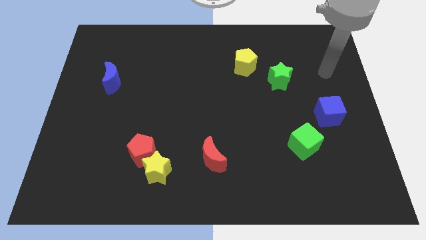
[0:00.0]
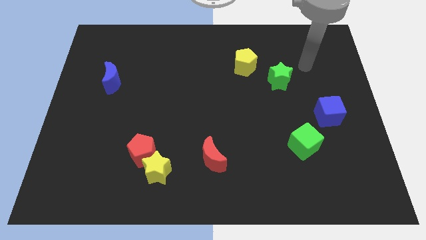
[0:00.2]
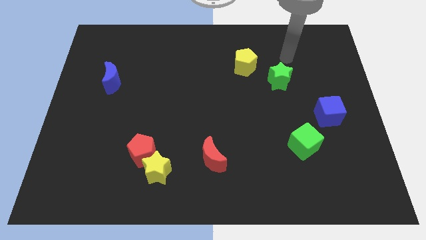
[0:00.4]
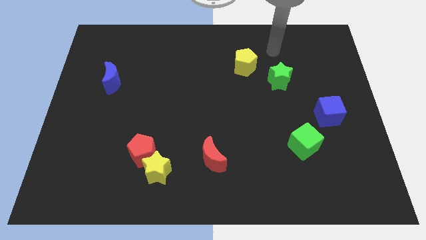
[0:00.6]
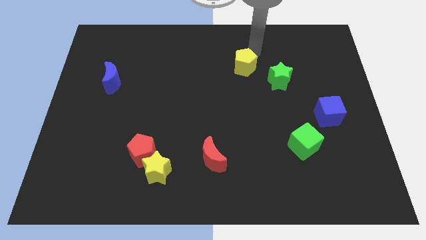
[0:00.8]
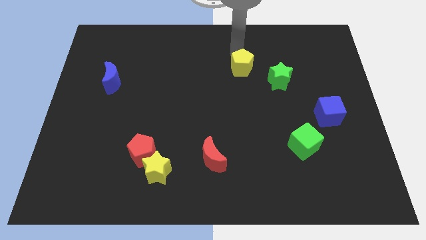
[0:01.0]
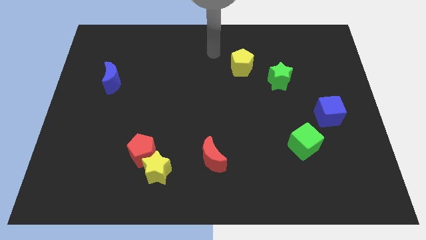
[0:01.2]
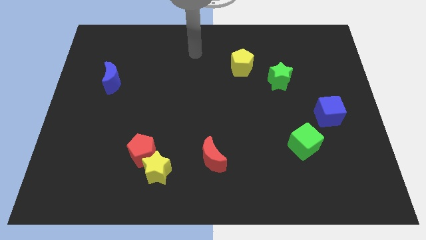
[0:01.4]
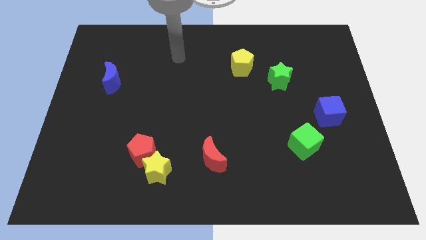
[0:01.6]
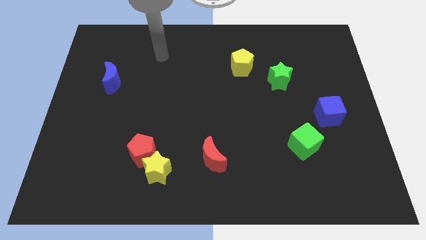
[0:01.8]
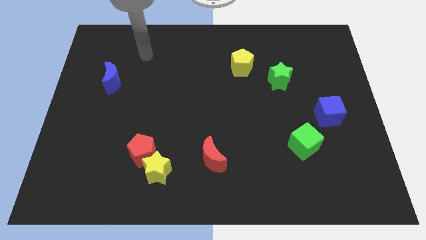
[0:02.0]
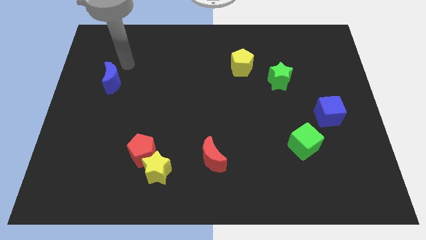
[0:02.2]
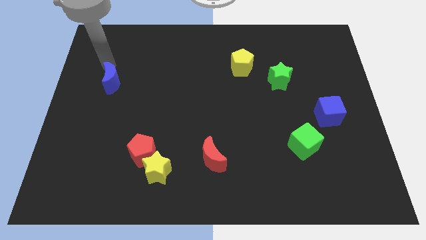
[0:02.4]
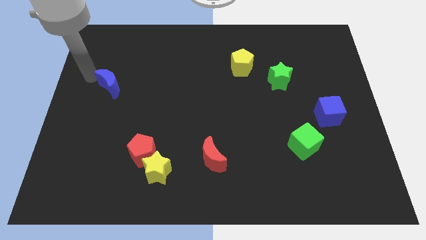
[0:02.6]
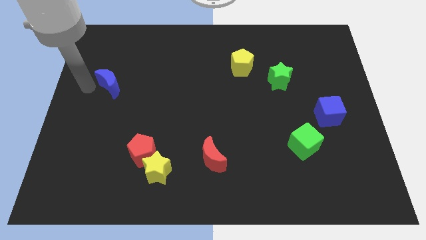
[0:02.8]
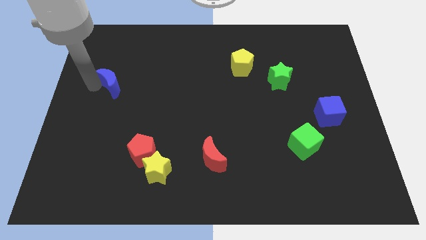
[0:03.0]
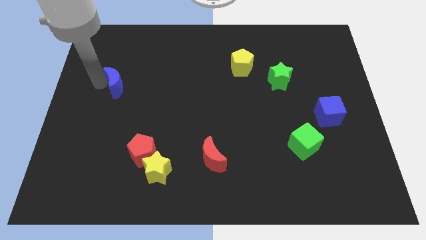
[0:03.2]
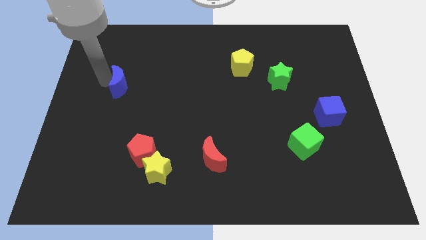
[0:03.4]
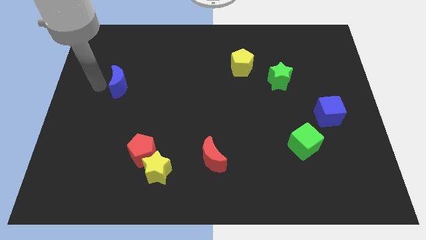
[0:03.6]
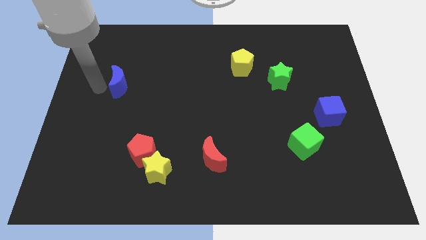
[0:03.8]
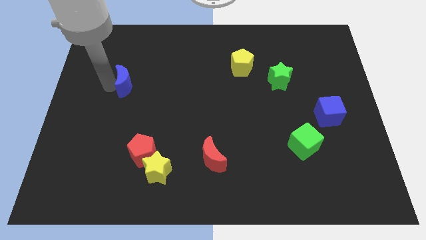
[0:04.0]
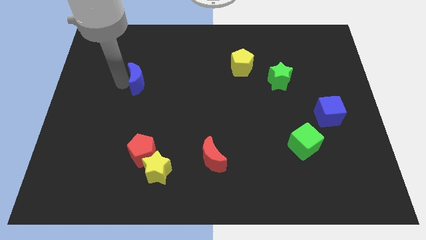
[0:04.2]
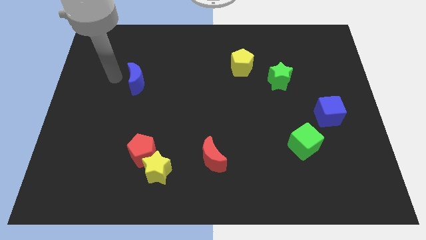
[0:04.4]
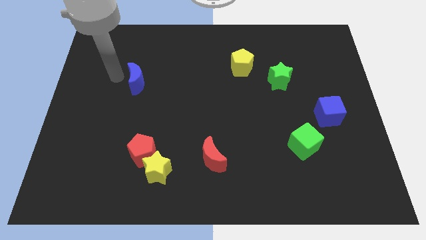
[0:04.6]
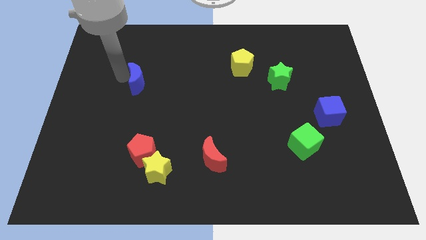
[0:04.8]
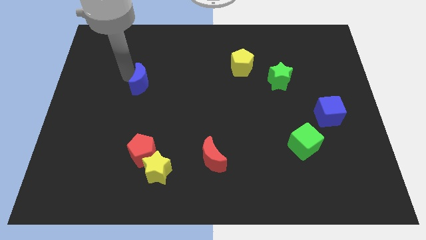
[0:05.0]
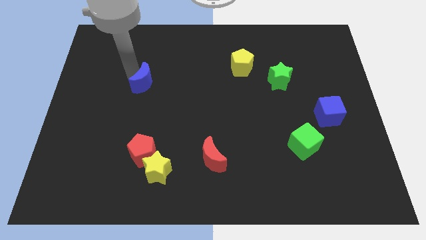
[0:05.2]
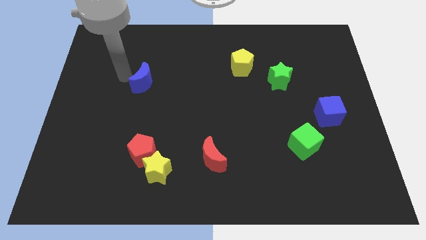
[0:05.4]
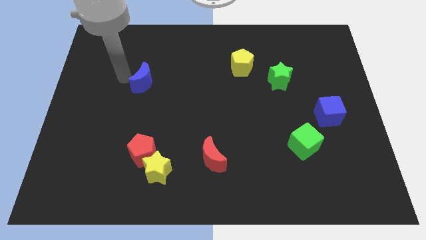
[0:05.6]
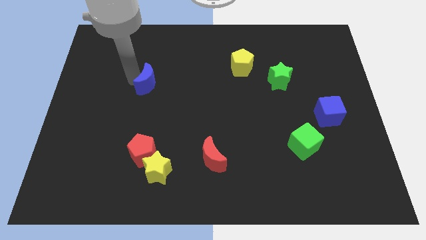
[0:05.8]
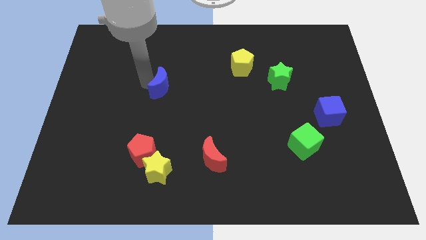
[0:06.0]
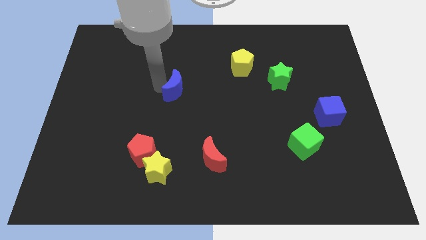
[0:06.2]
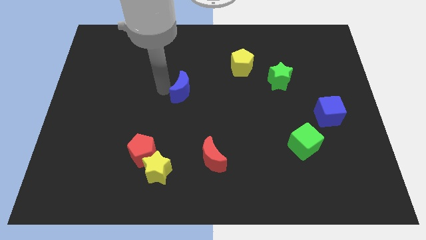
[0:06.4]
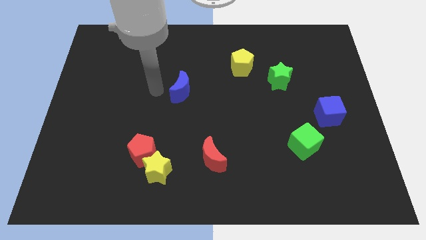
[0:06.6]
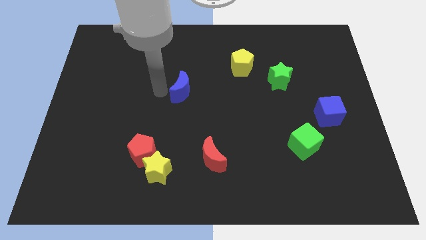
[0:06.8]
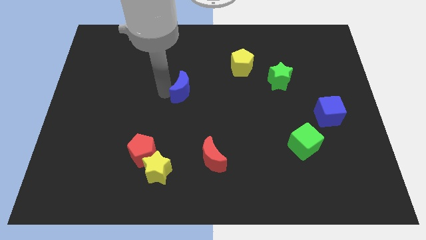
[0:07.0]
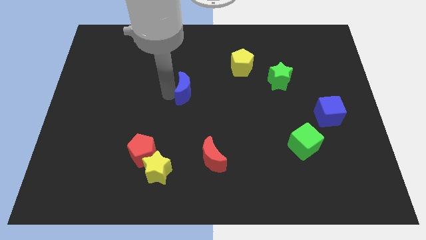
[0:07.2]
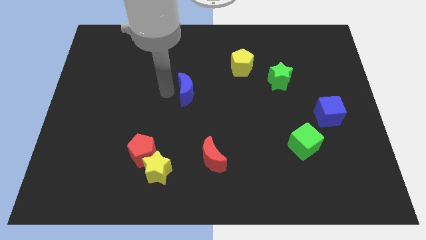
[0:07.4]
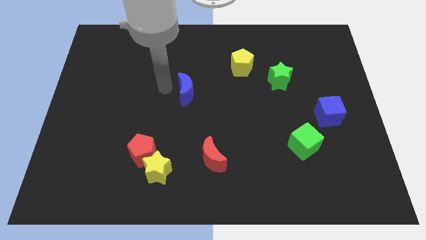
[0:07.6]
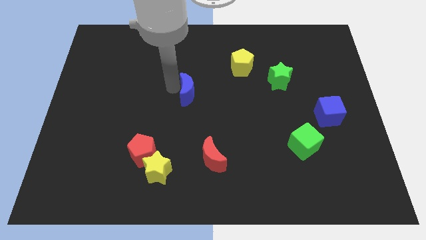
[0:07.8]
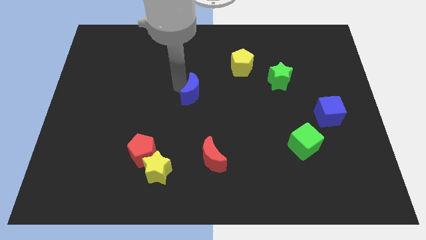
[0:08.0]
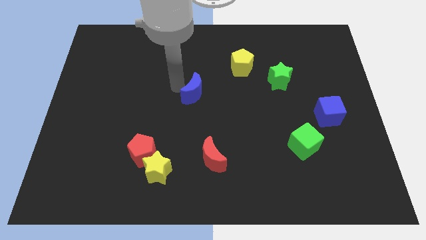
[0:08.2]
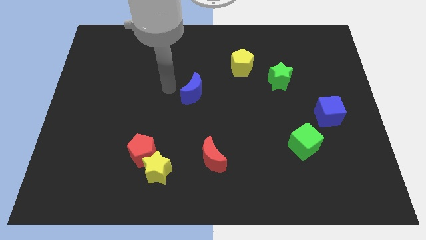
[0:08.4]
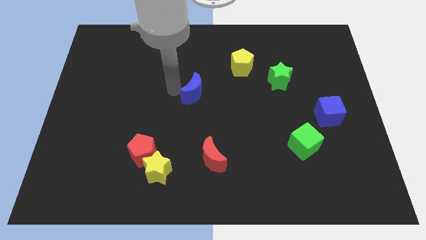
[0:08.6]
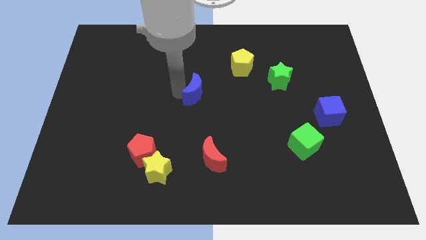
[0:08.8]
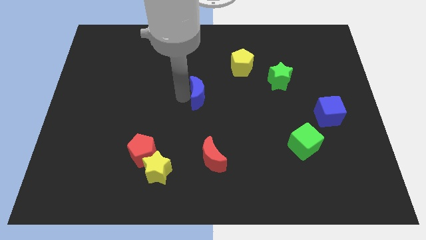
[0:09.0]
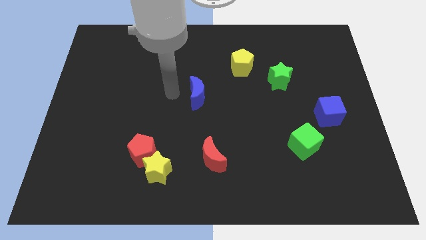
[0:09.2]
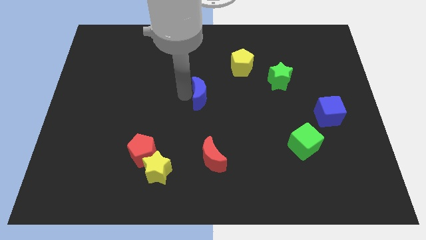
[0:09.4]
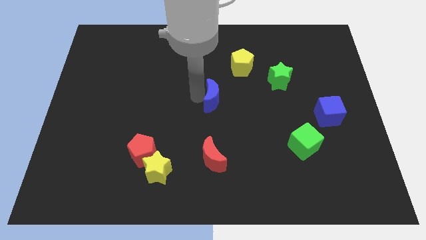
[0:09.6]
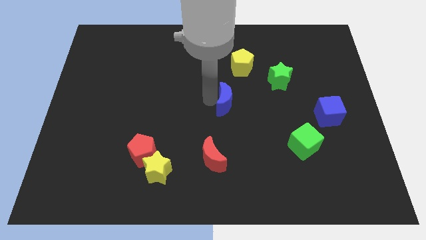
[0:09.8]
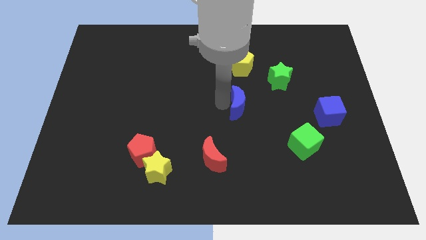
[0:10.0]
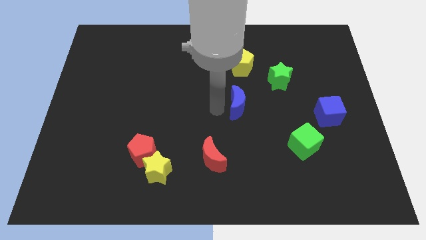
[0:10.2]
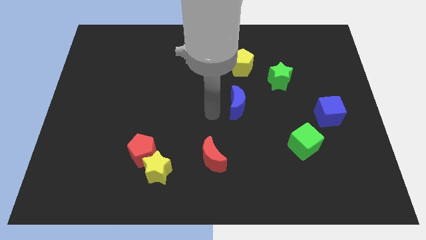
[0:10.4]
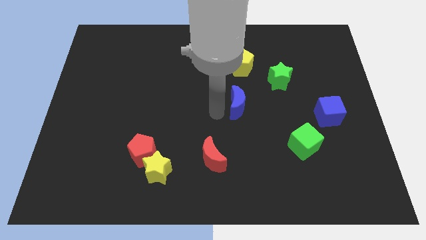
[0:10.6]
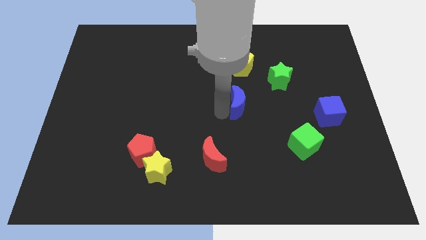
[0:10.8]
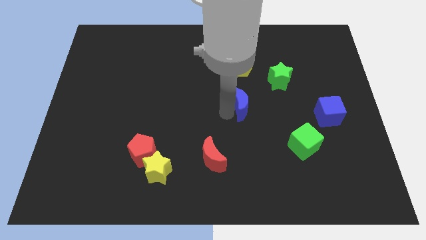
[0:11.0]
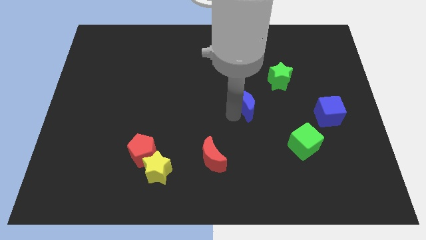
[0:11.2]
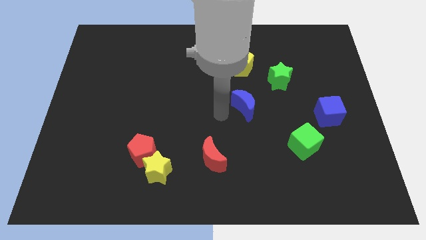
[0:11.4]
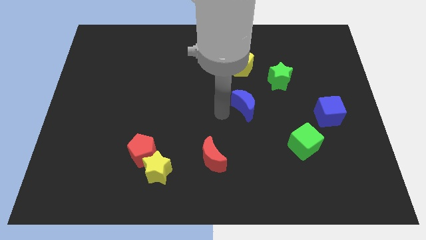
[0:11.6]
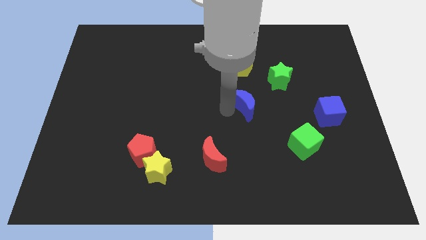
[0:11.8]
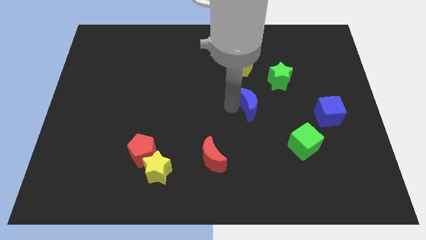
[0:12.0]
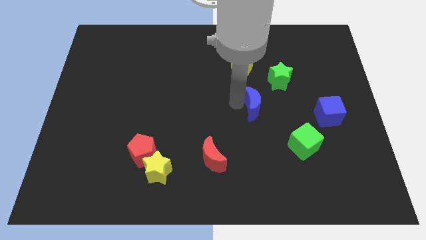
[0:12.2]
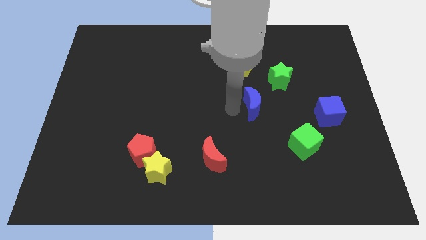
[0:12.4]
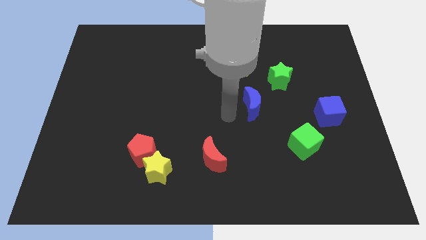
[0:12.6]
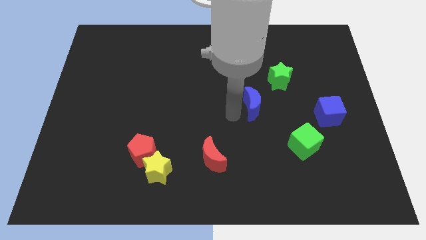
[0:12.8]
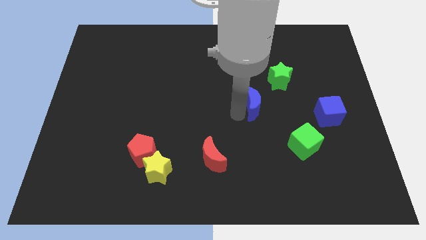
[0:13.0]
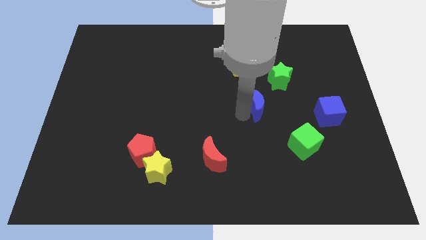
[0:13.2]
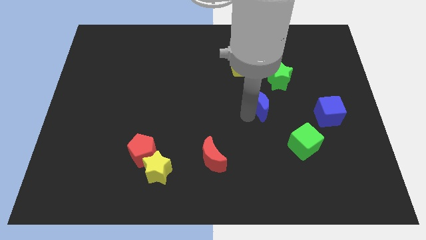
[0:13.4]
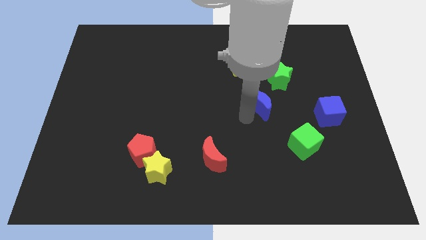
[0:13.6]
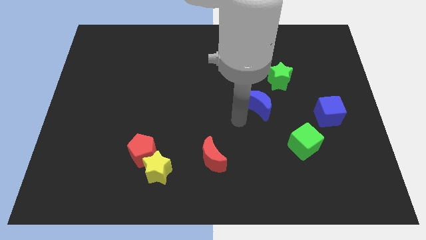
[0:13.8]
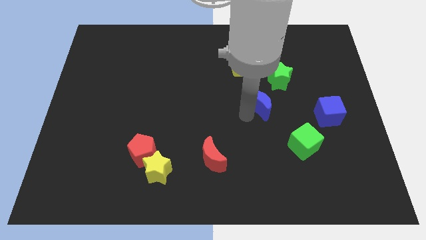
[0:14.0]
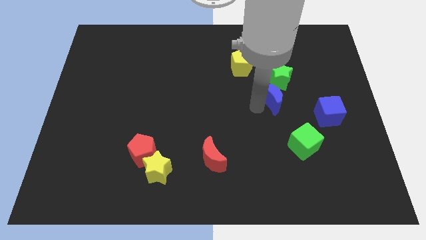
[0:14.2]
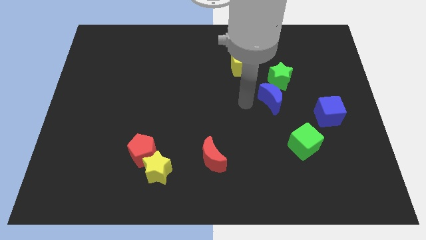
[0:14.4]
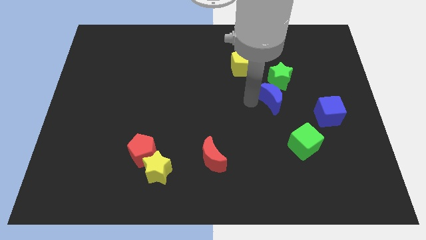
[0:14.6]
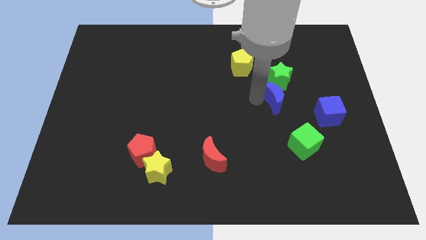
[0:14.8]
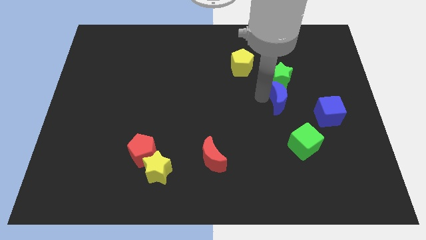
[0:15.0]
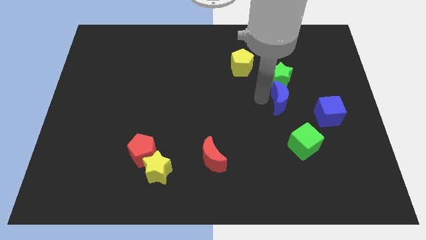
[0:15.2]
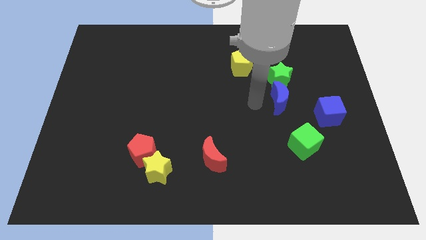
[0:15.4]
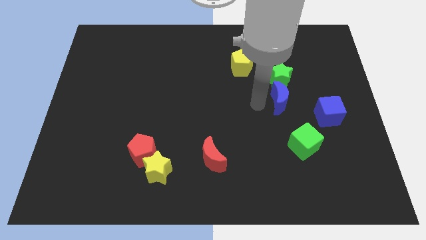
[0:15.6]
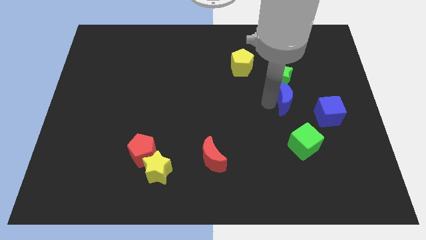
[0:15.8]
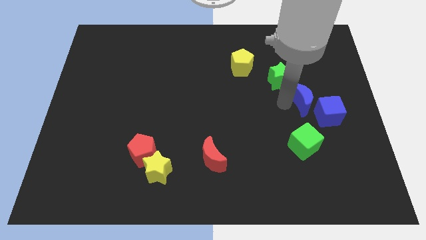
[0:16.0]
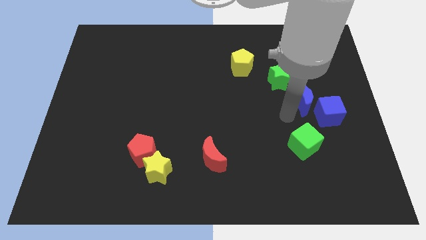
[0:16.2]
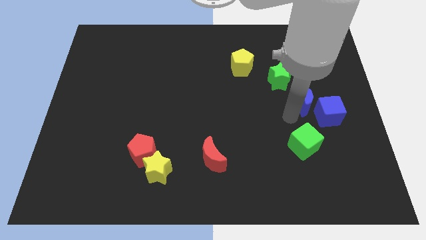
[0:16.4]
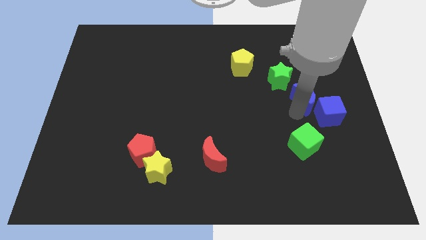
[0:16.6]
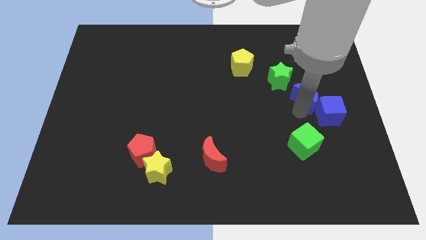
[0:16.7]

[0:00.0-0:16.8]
slide the blue moon to the top side of the blue cube
